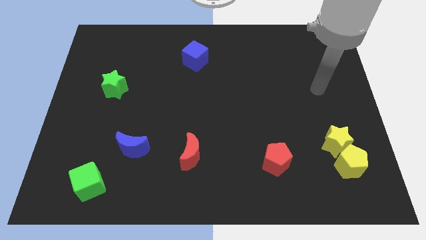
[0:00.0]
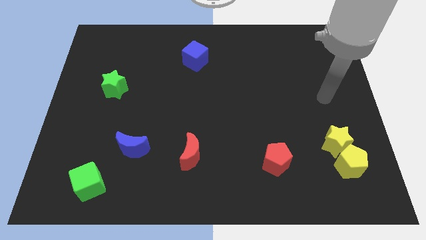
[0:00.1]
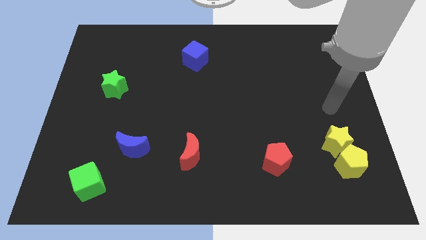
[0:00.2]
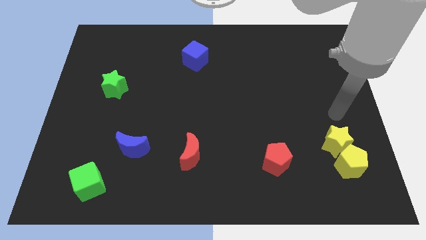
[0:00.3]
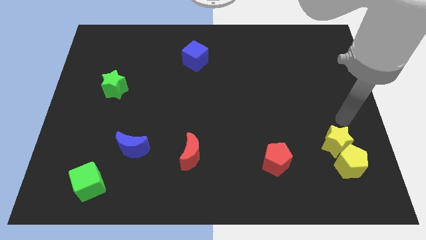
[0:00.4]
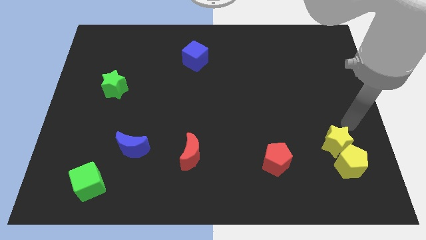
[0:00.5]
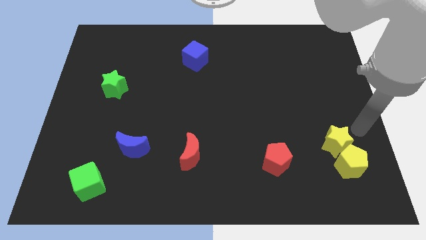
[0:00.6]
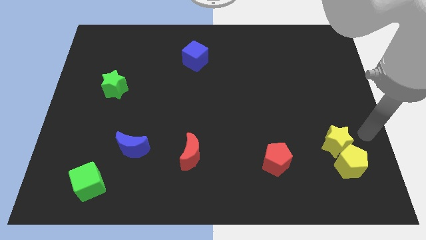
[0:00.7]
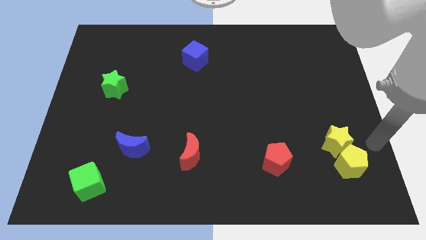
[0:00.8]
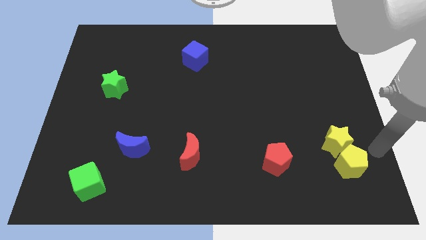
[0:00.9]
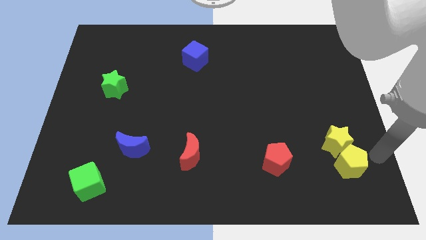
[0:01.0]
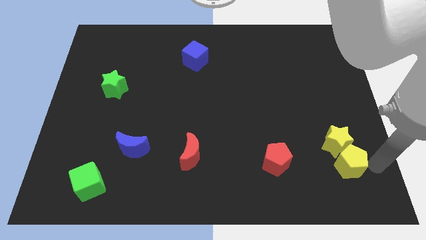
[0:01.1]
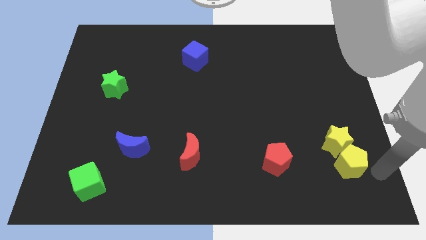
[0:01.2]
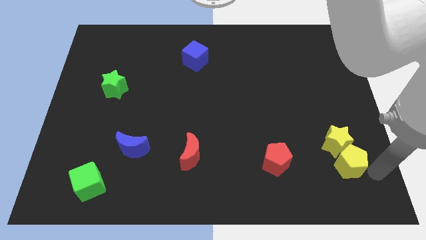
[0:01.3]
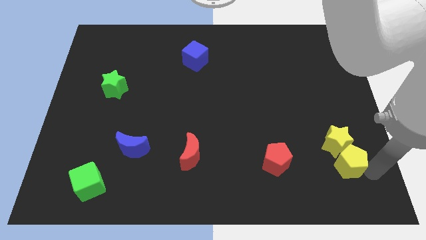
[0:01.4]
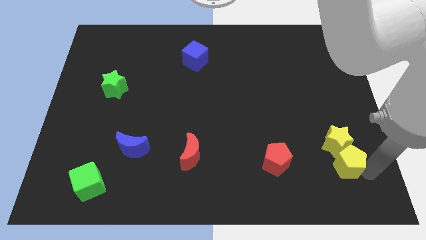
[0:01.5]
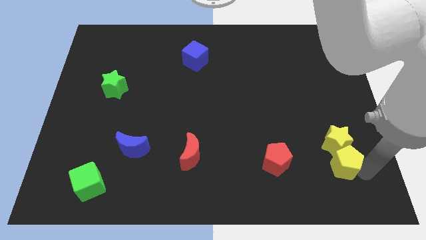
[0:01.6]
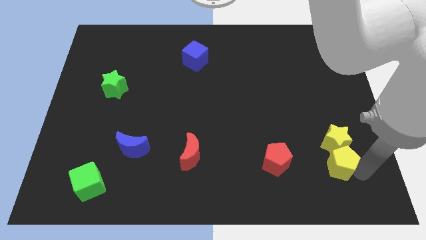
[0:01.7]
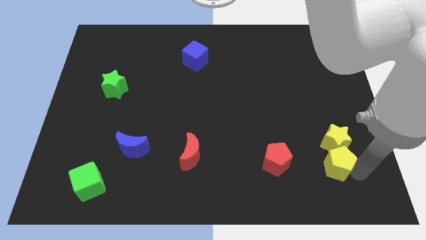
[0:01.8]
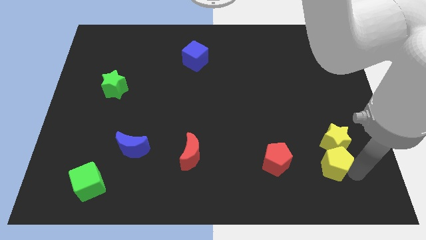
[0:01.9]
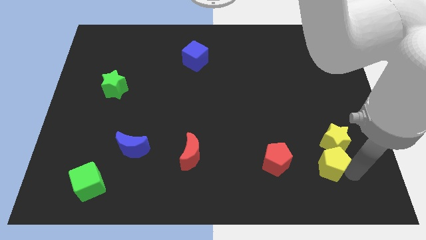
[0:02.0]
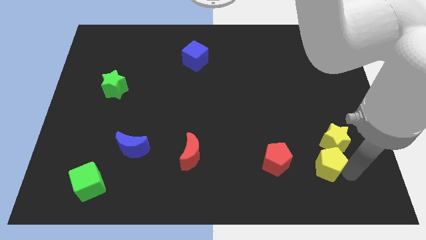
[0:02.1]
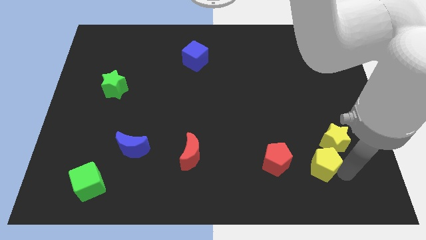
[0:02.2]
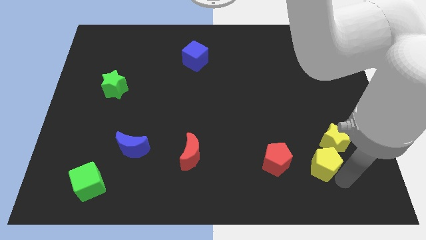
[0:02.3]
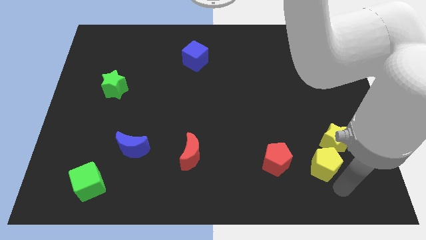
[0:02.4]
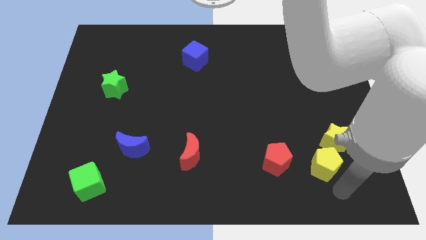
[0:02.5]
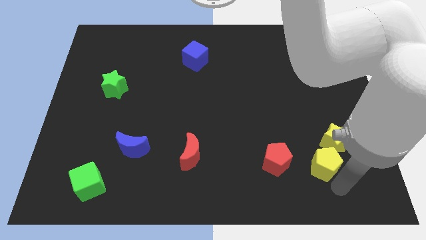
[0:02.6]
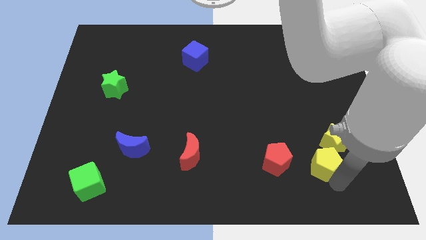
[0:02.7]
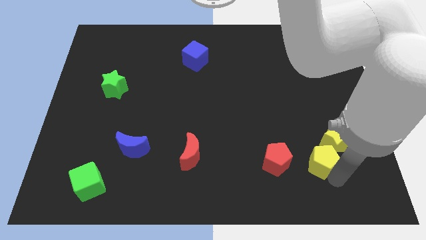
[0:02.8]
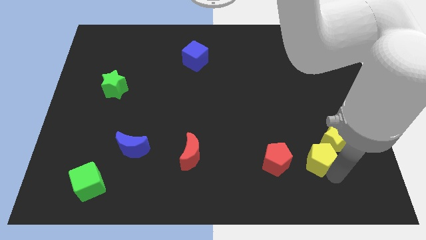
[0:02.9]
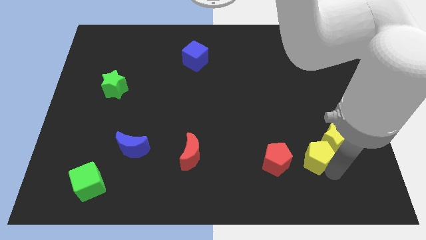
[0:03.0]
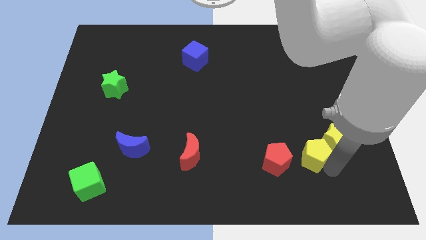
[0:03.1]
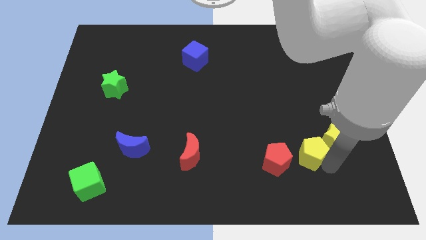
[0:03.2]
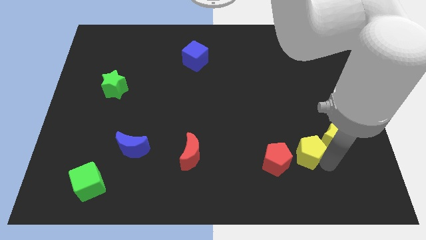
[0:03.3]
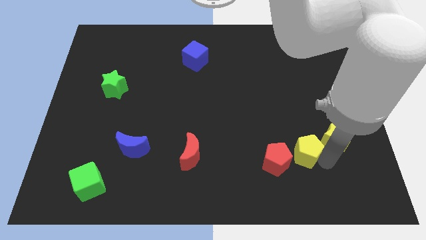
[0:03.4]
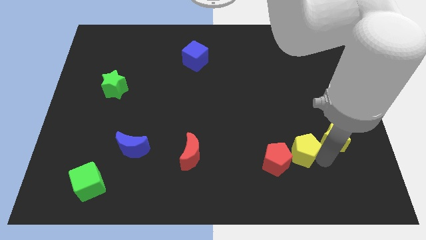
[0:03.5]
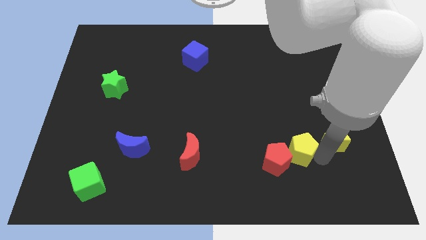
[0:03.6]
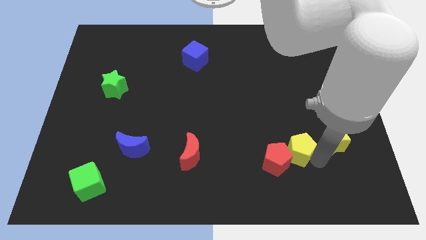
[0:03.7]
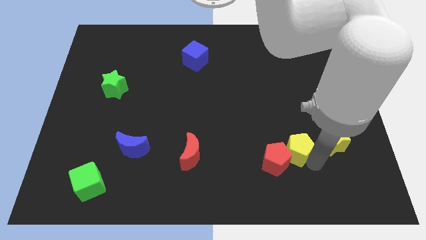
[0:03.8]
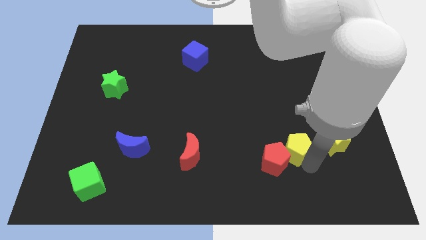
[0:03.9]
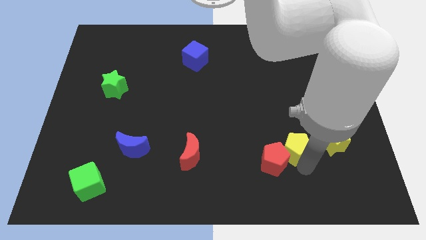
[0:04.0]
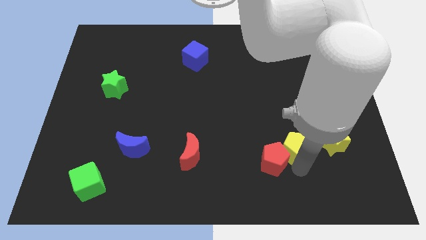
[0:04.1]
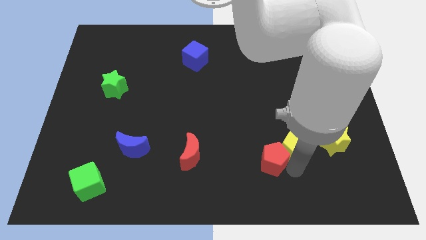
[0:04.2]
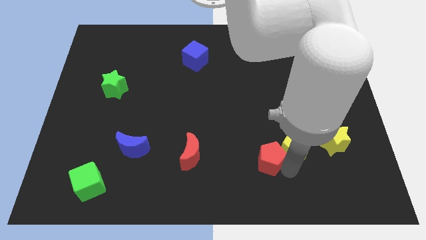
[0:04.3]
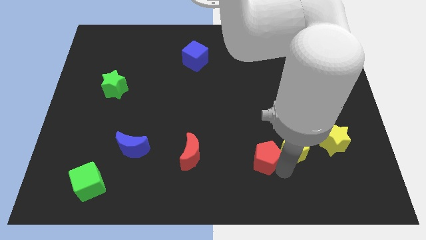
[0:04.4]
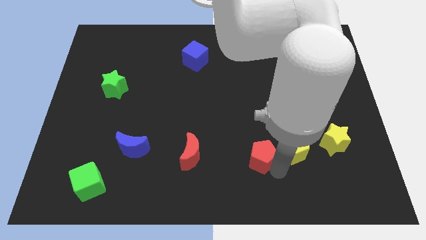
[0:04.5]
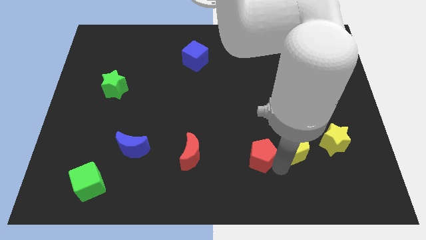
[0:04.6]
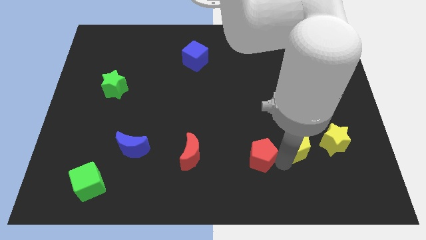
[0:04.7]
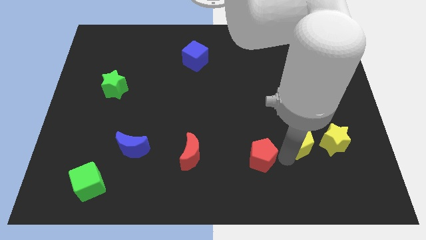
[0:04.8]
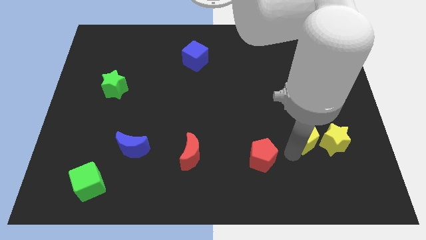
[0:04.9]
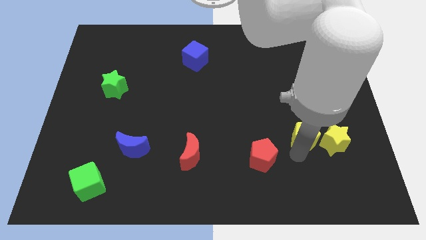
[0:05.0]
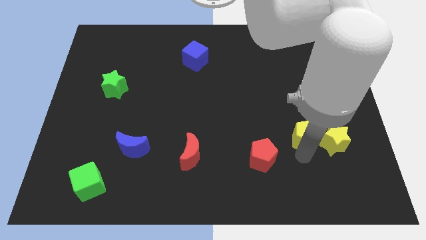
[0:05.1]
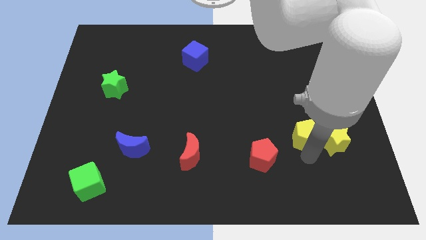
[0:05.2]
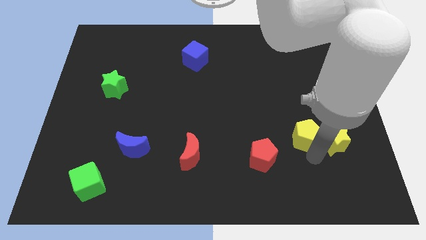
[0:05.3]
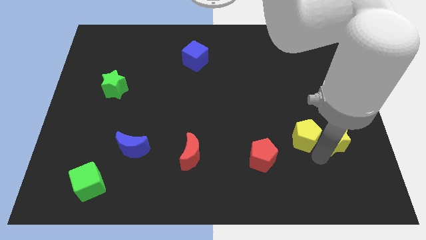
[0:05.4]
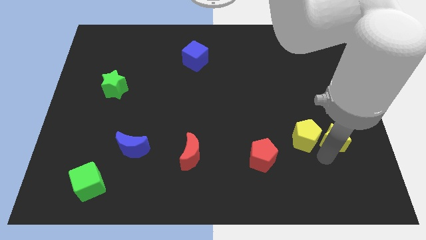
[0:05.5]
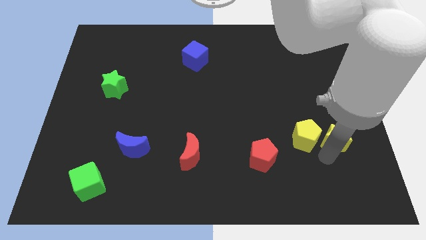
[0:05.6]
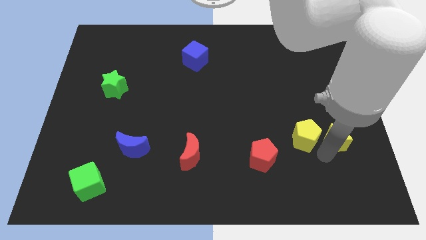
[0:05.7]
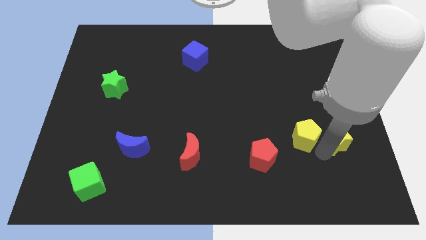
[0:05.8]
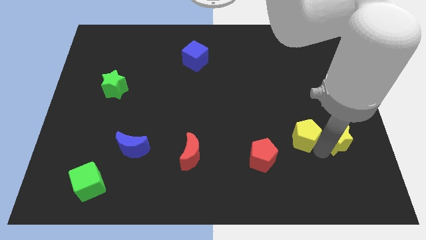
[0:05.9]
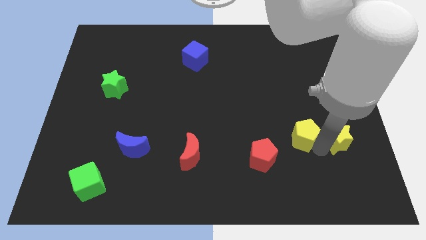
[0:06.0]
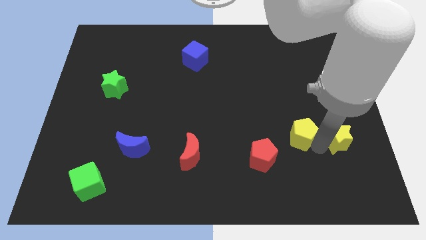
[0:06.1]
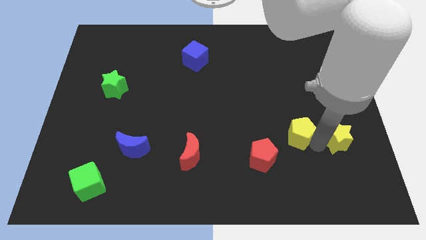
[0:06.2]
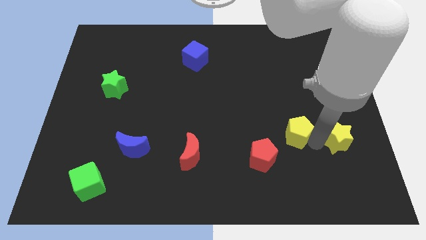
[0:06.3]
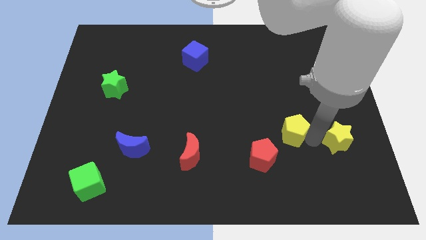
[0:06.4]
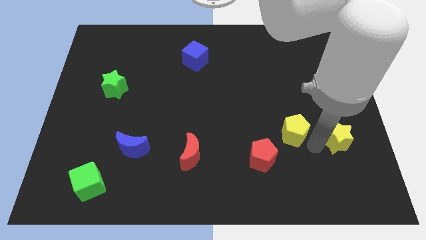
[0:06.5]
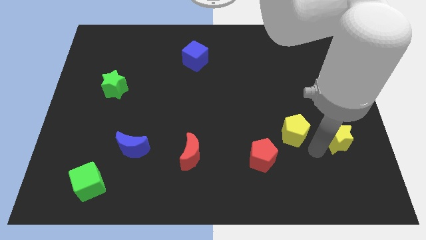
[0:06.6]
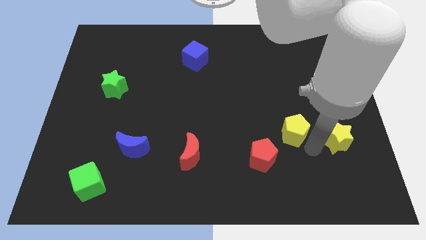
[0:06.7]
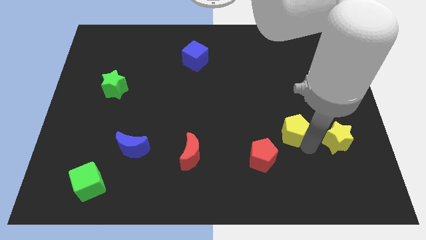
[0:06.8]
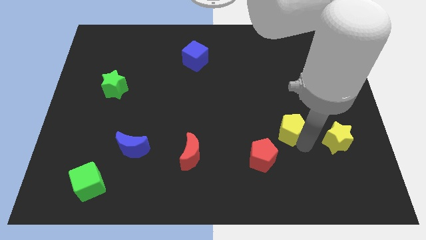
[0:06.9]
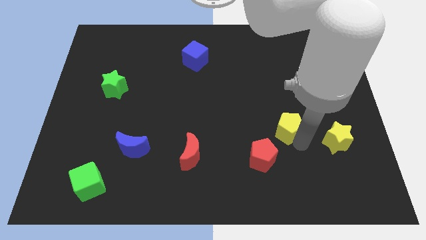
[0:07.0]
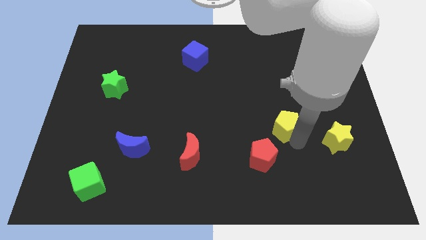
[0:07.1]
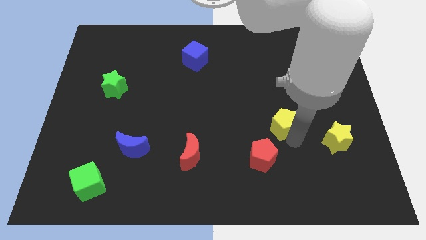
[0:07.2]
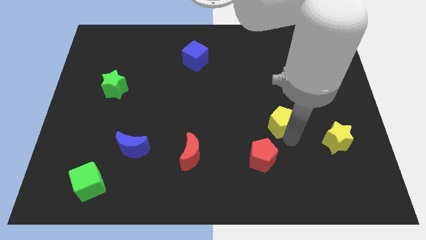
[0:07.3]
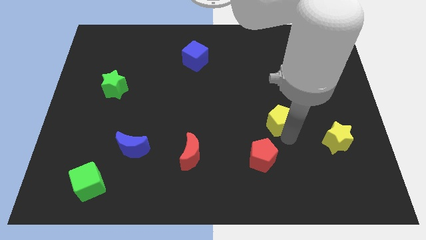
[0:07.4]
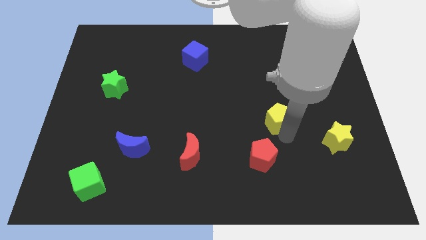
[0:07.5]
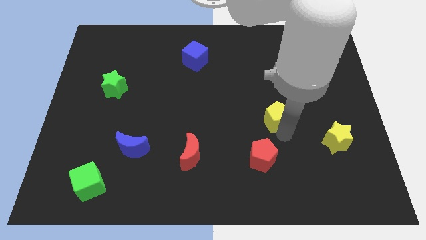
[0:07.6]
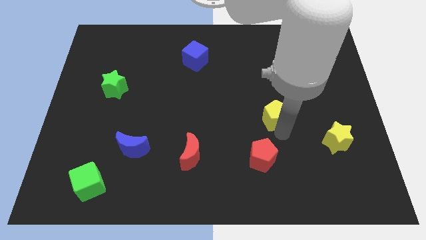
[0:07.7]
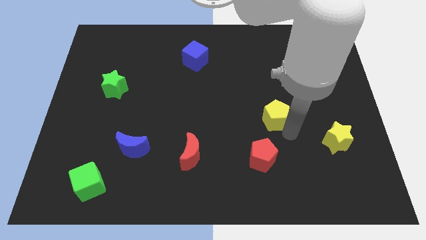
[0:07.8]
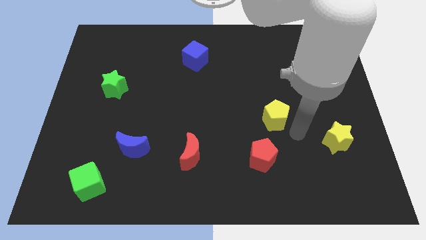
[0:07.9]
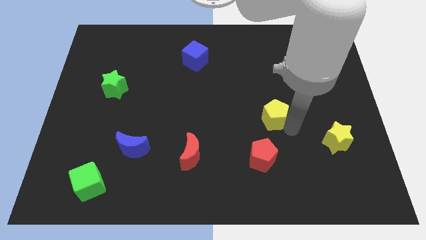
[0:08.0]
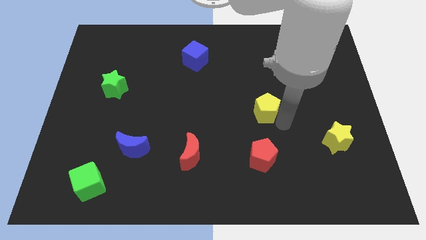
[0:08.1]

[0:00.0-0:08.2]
slide the yellow pentagon upwards and to the left diagonally
